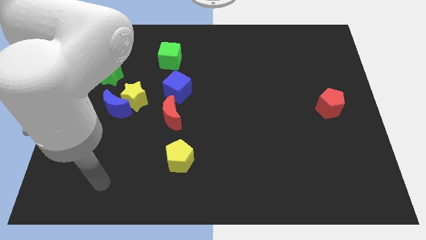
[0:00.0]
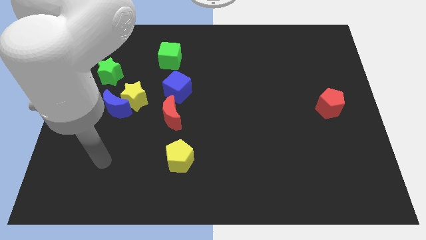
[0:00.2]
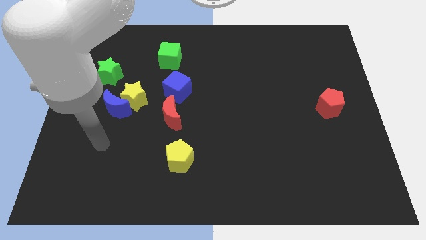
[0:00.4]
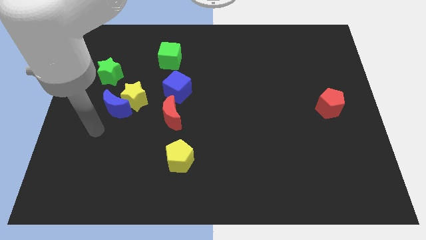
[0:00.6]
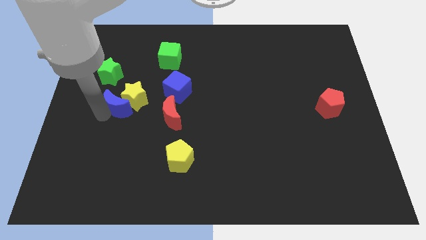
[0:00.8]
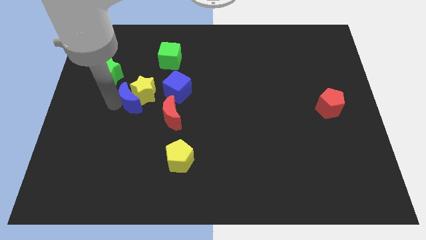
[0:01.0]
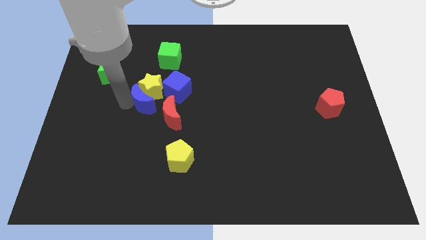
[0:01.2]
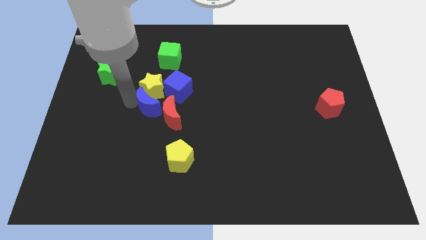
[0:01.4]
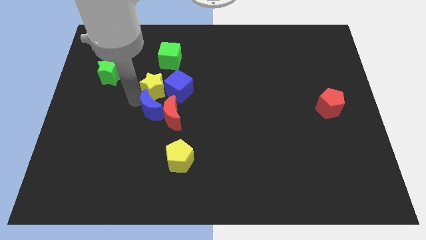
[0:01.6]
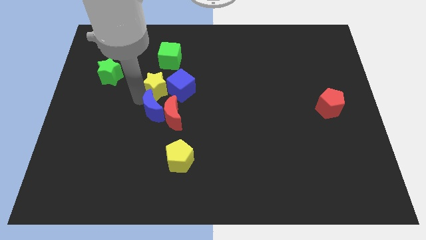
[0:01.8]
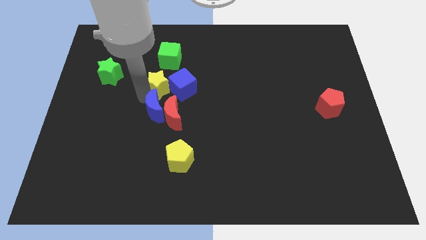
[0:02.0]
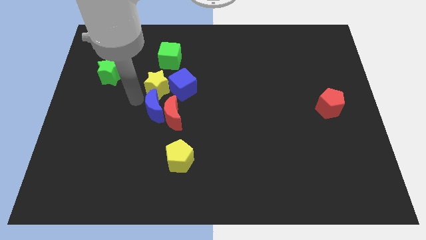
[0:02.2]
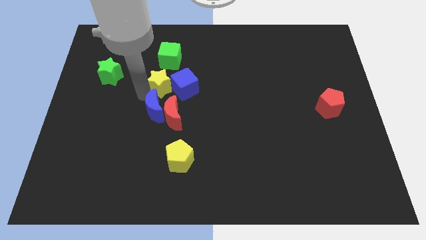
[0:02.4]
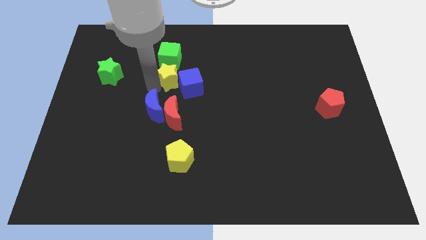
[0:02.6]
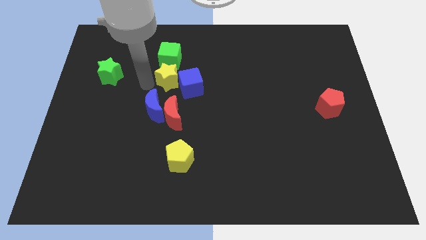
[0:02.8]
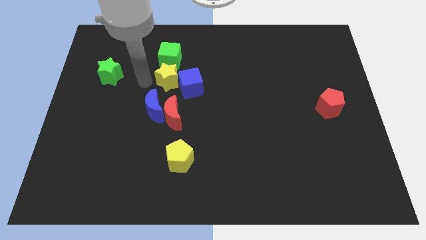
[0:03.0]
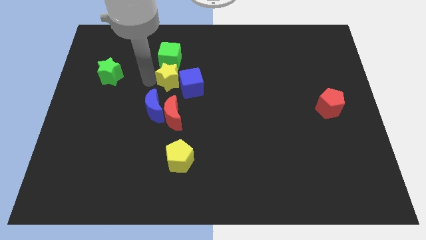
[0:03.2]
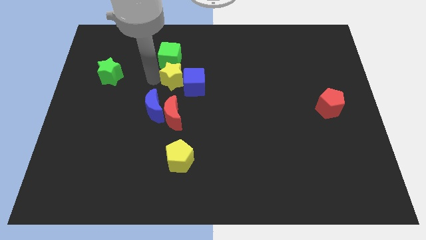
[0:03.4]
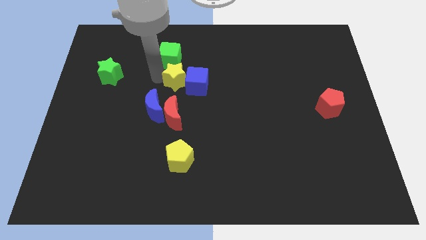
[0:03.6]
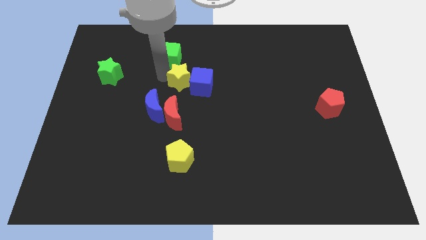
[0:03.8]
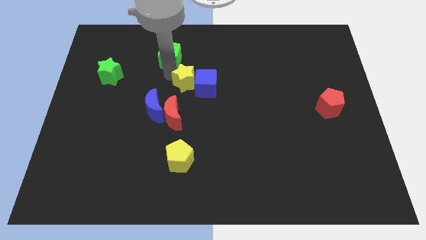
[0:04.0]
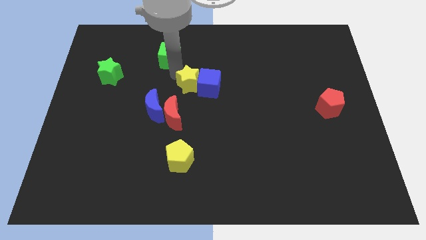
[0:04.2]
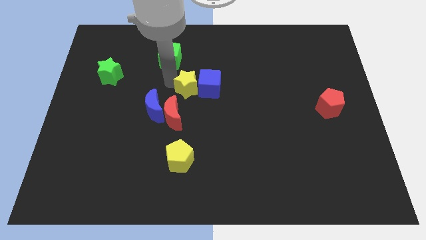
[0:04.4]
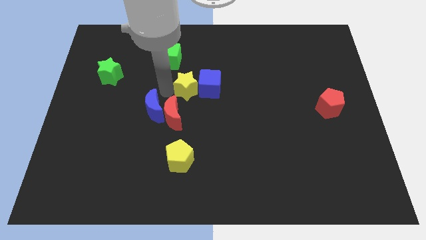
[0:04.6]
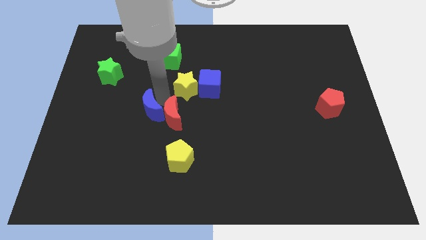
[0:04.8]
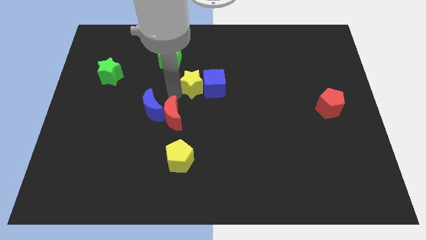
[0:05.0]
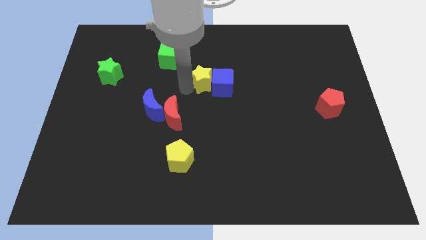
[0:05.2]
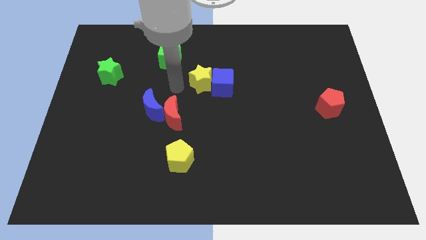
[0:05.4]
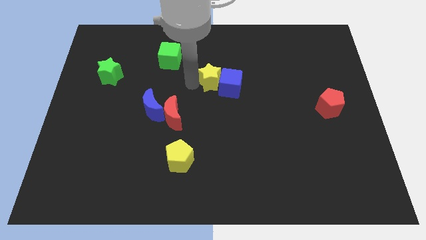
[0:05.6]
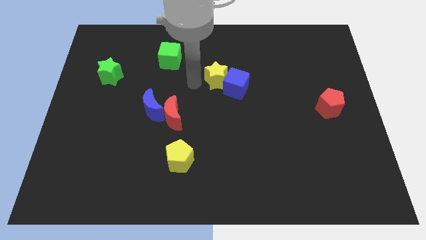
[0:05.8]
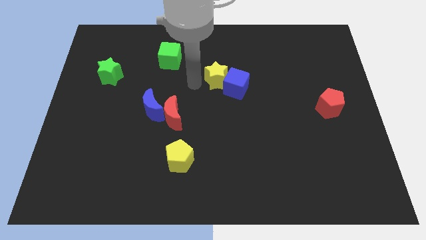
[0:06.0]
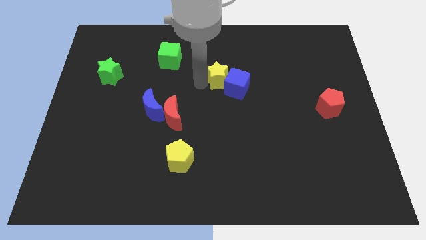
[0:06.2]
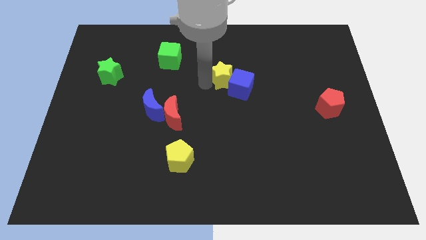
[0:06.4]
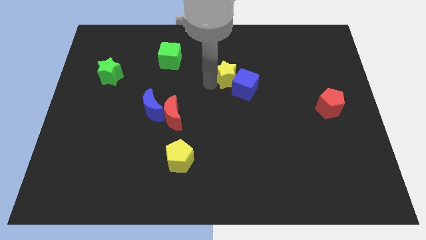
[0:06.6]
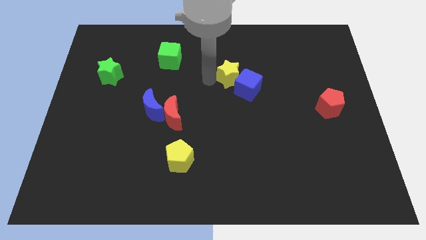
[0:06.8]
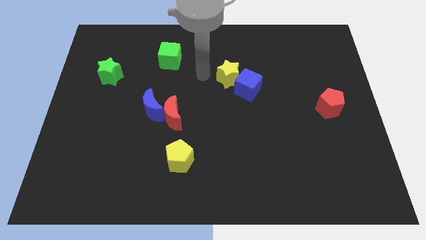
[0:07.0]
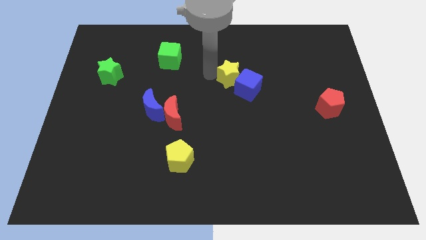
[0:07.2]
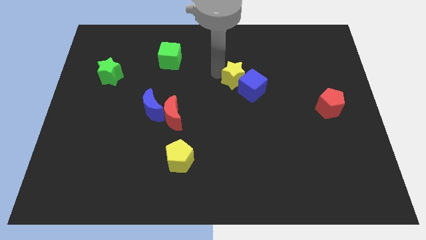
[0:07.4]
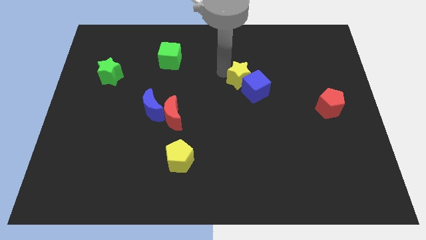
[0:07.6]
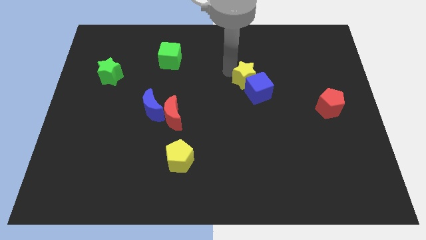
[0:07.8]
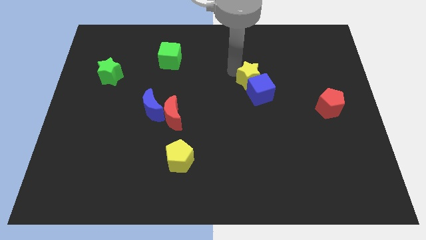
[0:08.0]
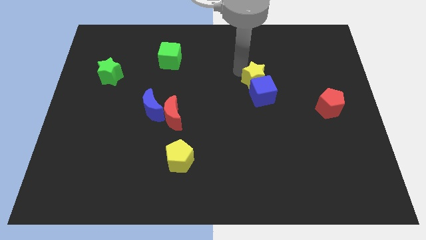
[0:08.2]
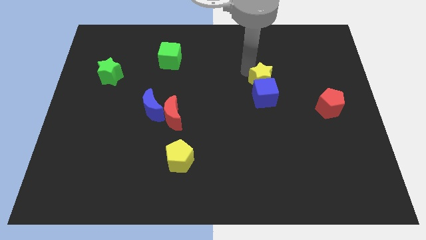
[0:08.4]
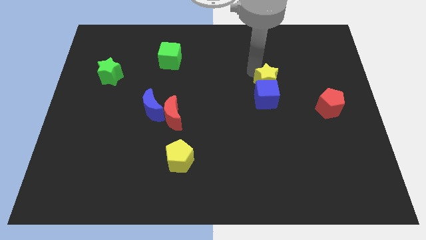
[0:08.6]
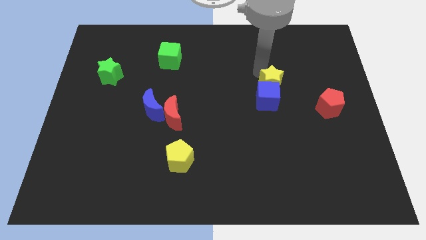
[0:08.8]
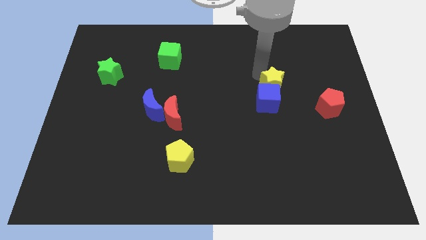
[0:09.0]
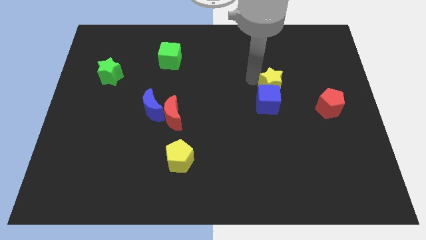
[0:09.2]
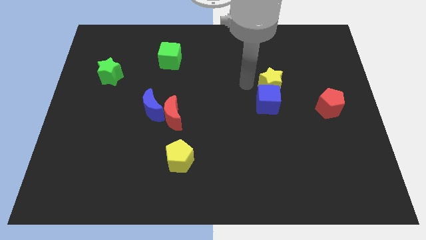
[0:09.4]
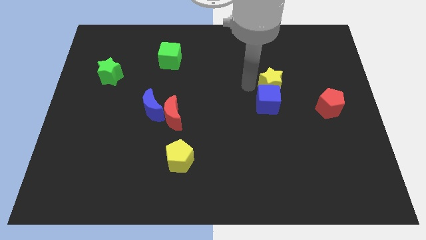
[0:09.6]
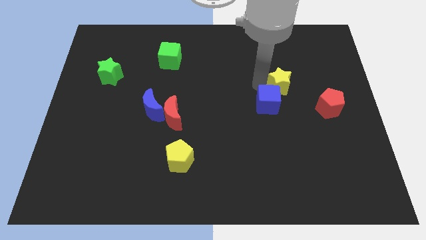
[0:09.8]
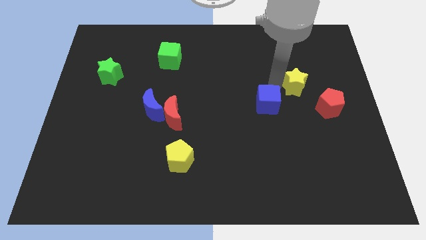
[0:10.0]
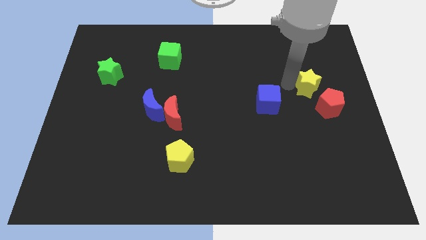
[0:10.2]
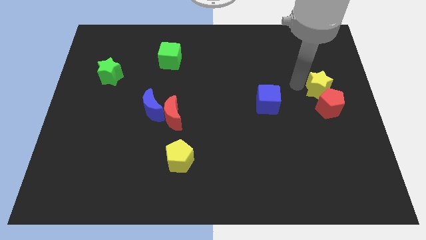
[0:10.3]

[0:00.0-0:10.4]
slide the yellow star to the right side

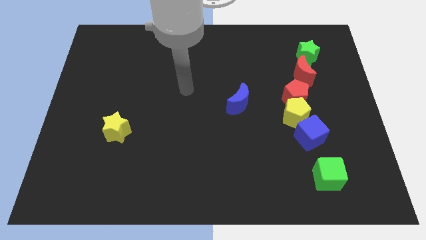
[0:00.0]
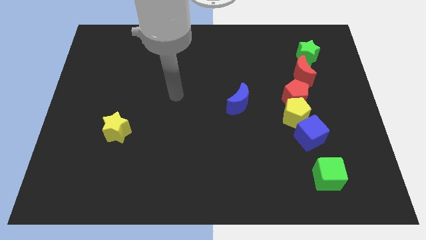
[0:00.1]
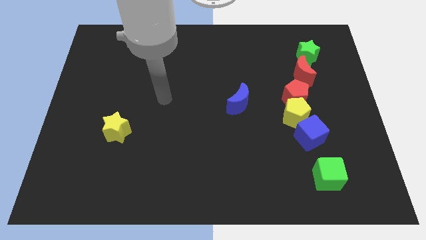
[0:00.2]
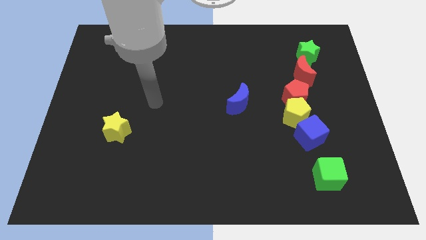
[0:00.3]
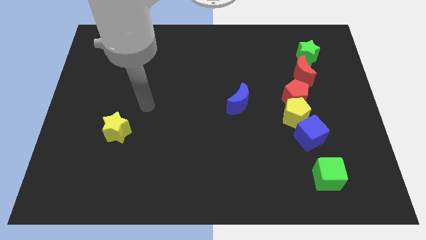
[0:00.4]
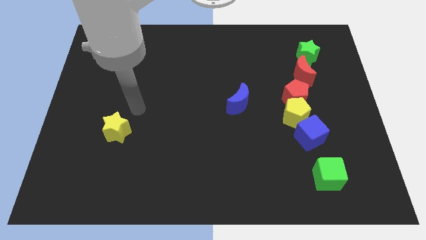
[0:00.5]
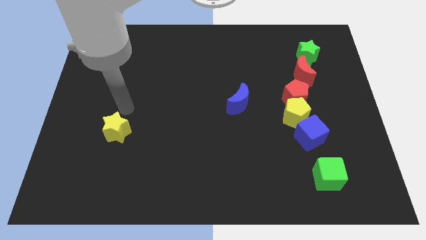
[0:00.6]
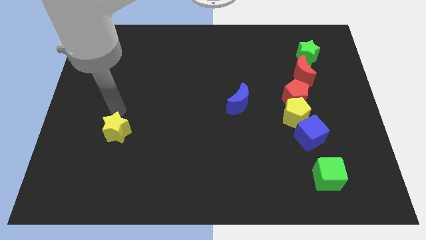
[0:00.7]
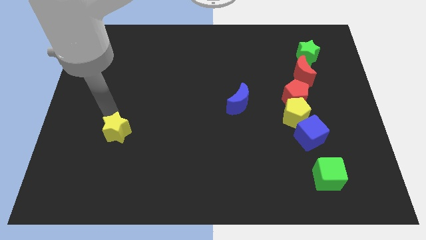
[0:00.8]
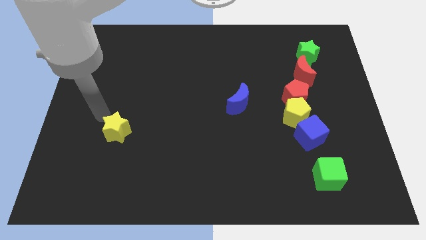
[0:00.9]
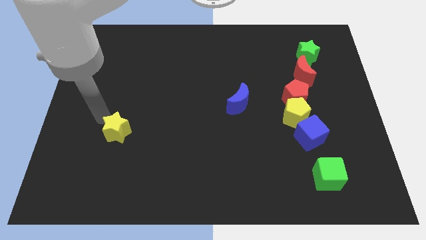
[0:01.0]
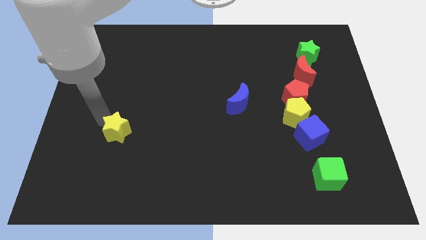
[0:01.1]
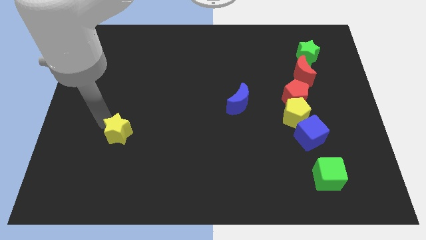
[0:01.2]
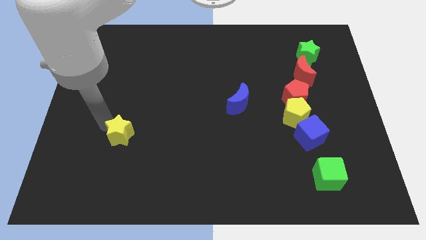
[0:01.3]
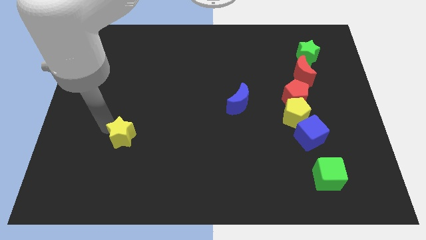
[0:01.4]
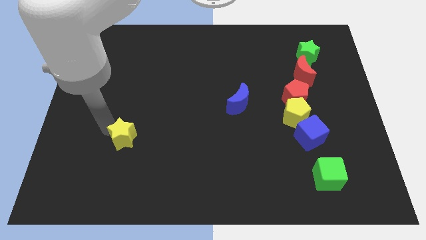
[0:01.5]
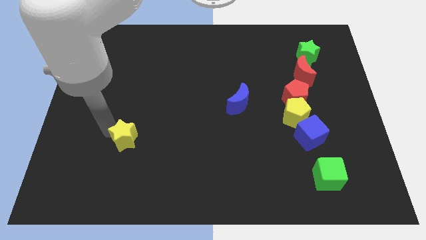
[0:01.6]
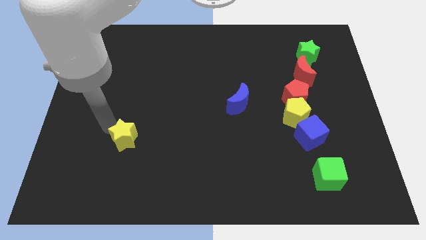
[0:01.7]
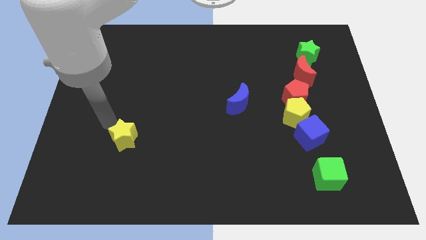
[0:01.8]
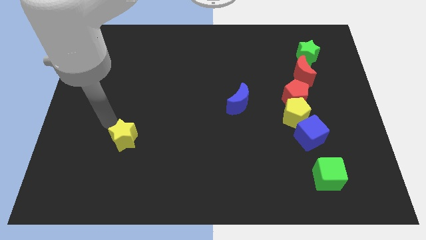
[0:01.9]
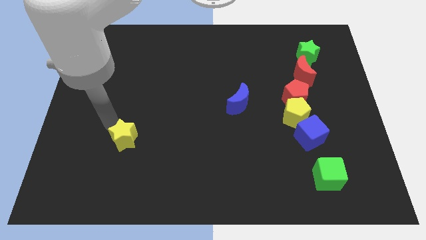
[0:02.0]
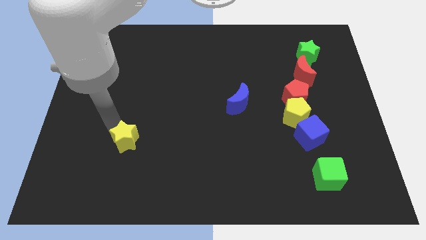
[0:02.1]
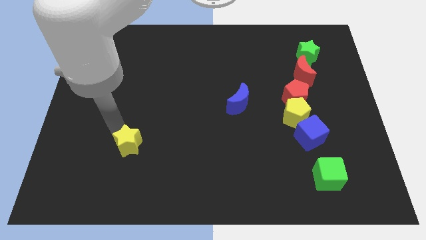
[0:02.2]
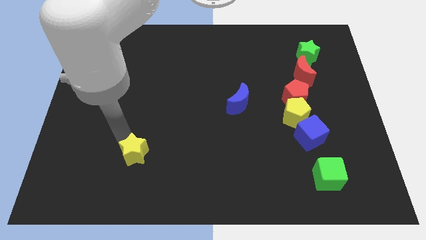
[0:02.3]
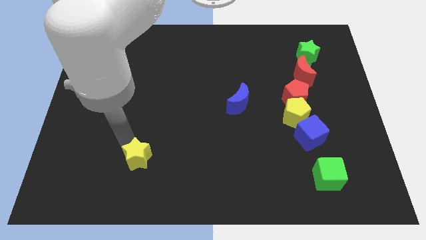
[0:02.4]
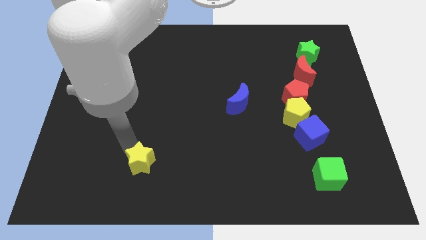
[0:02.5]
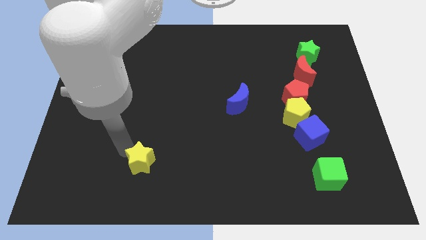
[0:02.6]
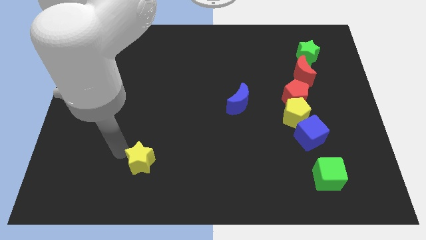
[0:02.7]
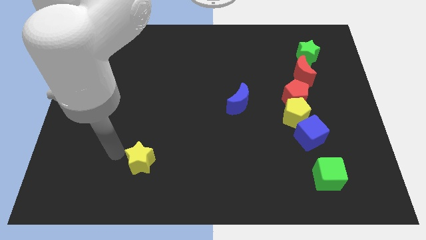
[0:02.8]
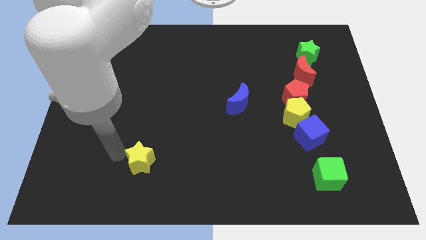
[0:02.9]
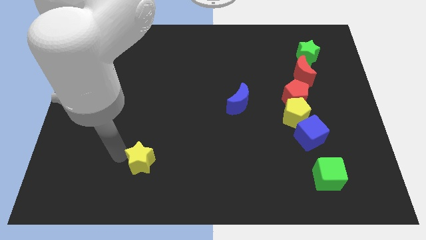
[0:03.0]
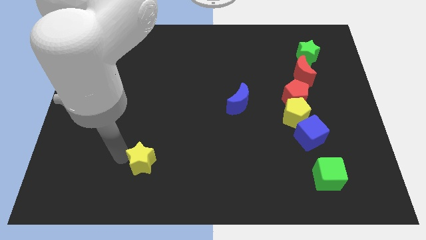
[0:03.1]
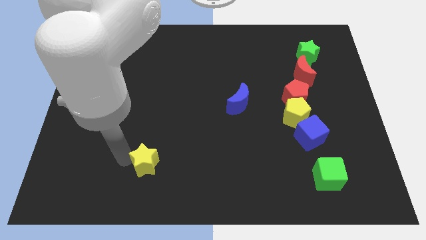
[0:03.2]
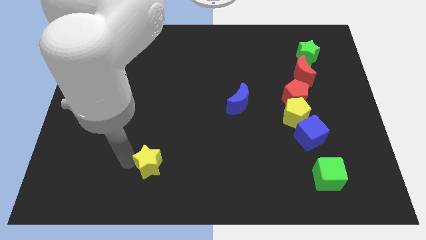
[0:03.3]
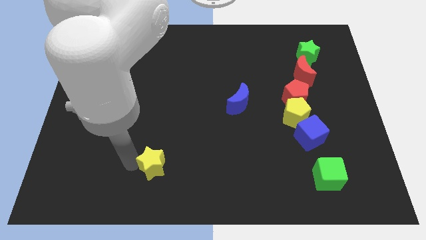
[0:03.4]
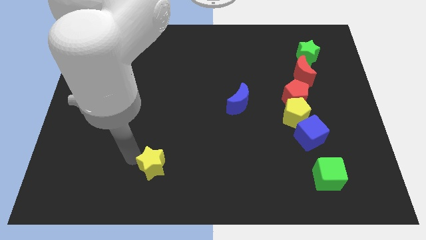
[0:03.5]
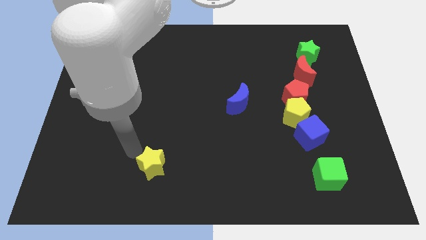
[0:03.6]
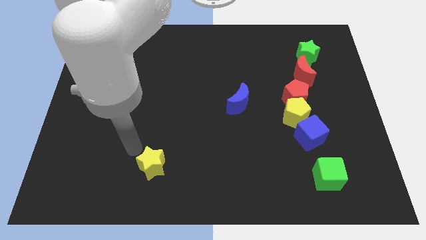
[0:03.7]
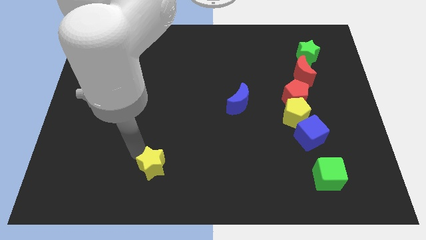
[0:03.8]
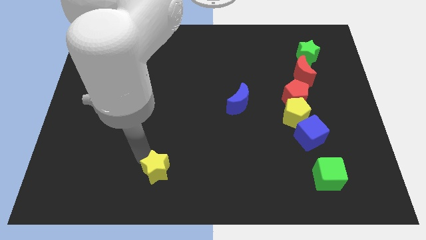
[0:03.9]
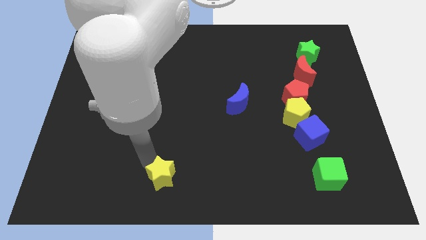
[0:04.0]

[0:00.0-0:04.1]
push the yellow star to the bottom side
